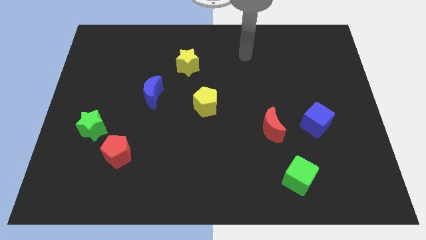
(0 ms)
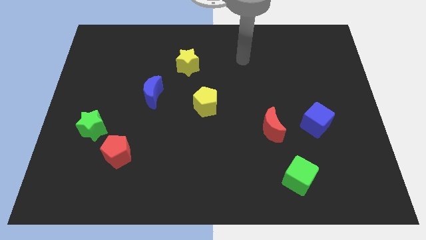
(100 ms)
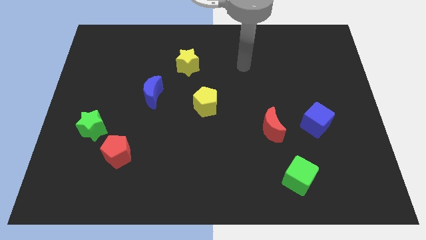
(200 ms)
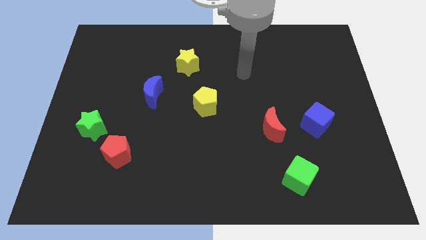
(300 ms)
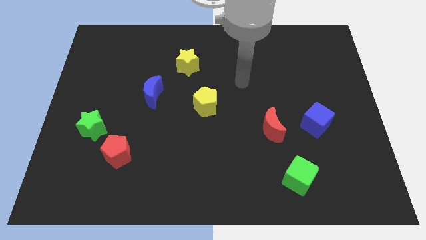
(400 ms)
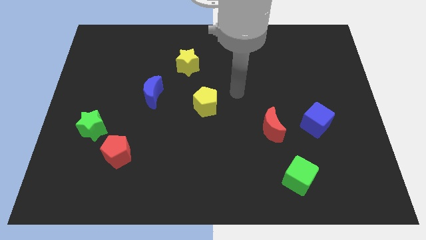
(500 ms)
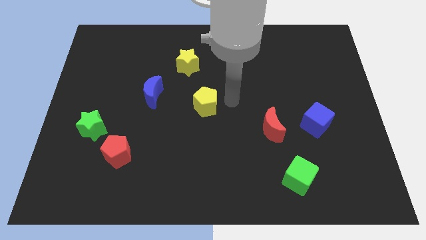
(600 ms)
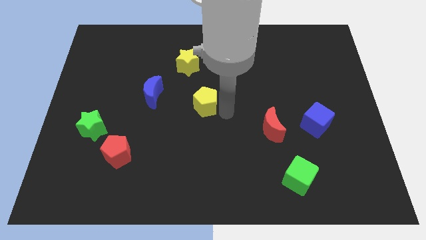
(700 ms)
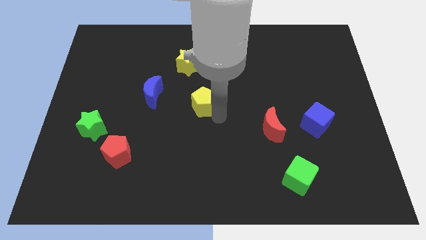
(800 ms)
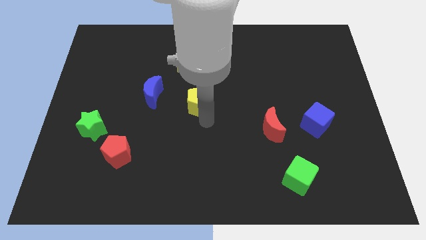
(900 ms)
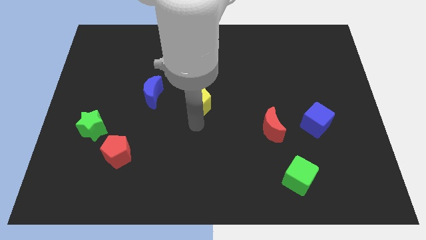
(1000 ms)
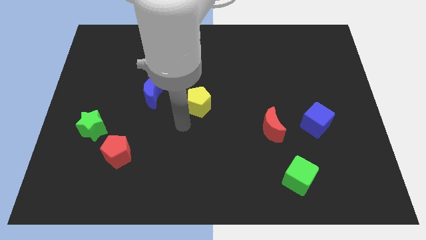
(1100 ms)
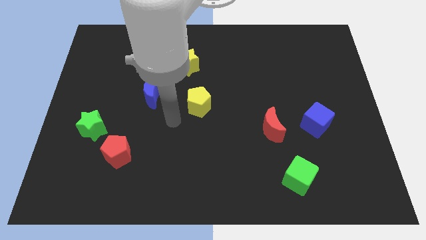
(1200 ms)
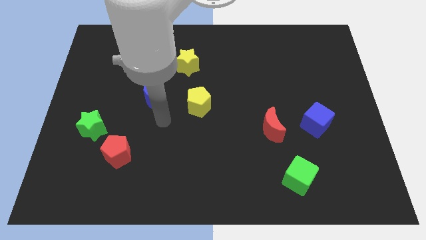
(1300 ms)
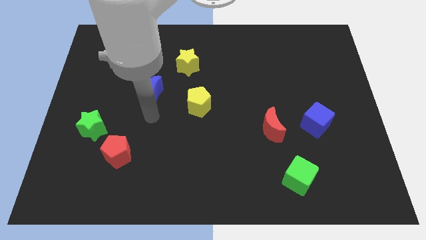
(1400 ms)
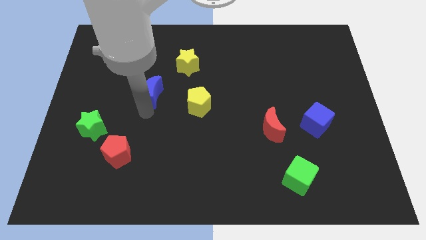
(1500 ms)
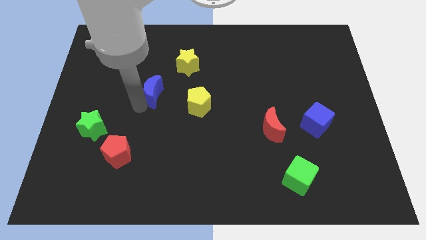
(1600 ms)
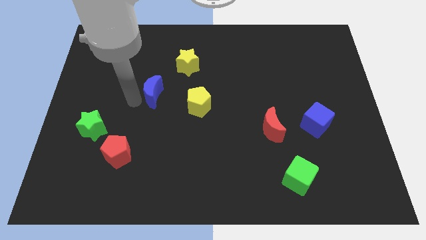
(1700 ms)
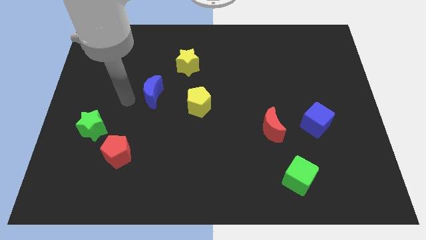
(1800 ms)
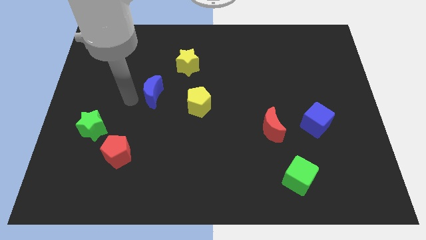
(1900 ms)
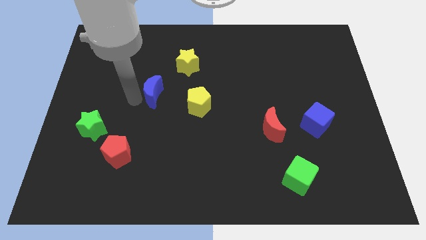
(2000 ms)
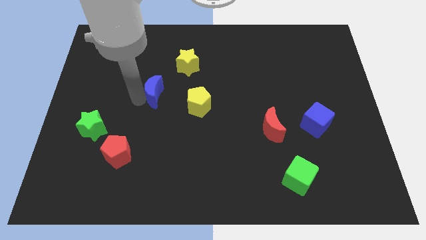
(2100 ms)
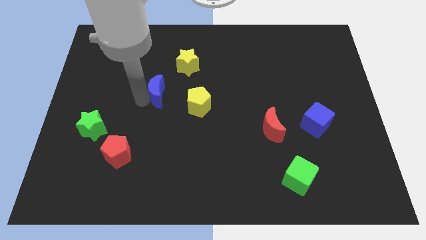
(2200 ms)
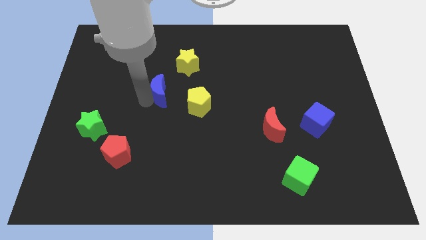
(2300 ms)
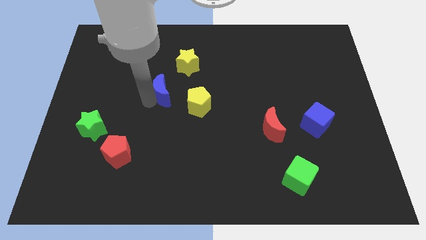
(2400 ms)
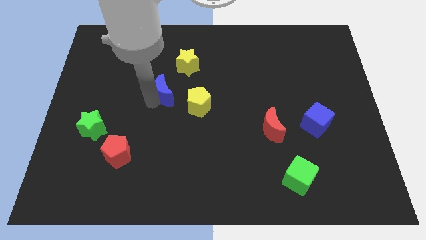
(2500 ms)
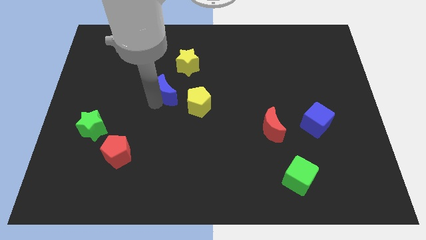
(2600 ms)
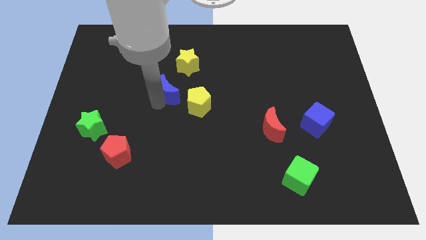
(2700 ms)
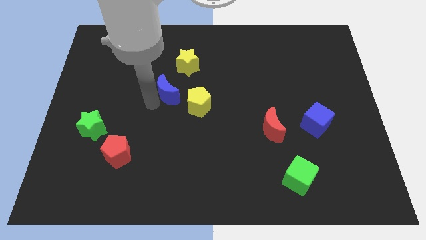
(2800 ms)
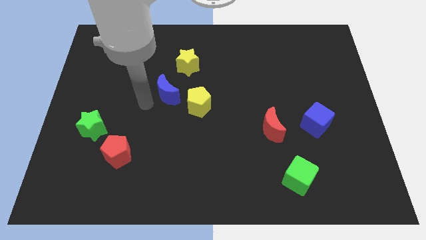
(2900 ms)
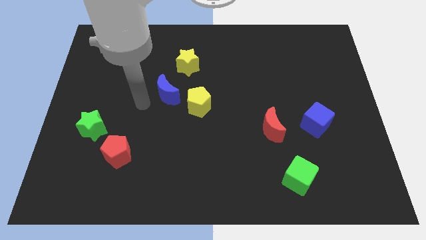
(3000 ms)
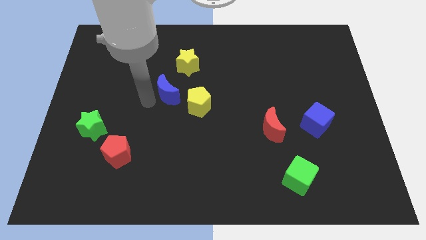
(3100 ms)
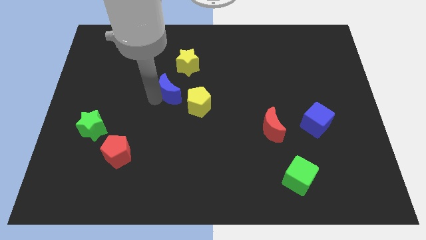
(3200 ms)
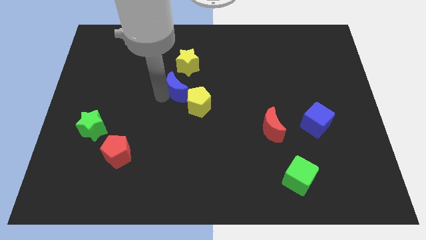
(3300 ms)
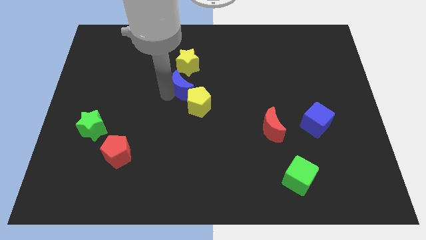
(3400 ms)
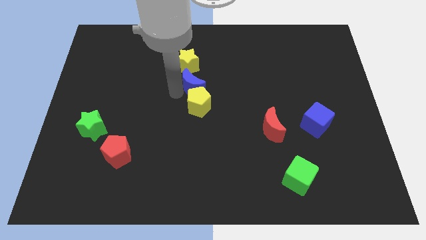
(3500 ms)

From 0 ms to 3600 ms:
slightly move the blue moon up and then right

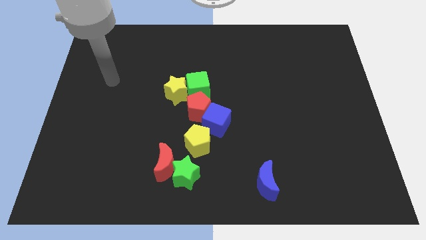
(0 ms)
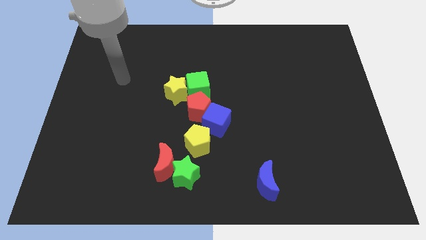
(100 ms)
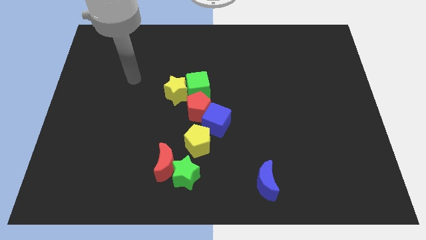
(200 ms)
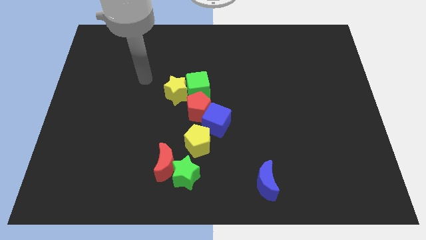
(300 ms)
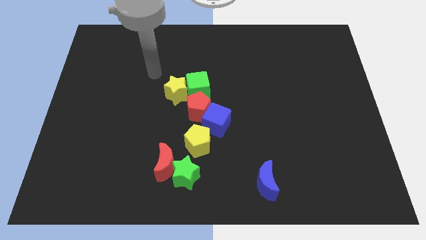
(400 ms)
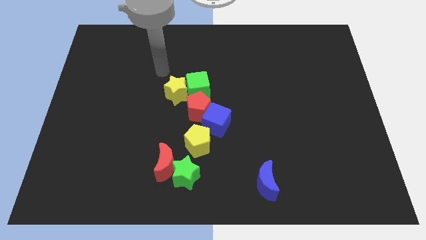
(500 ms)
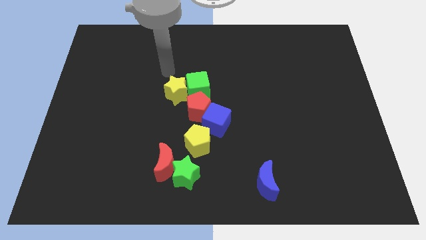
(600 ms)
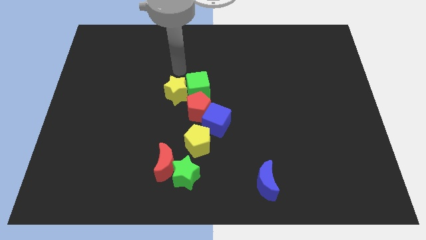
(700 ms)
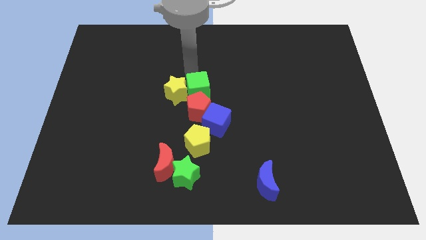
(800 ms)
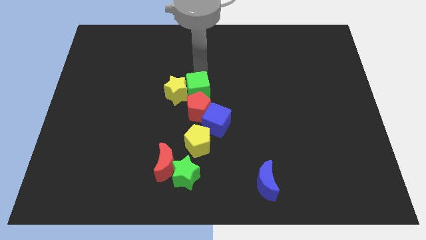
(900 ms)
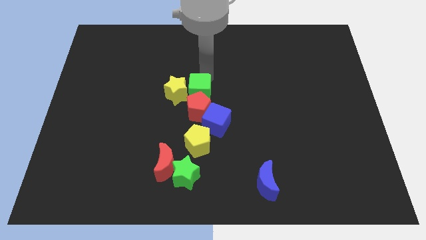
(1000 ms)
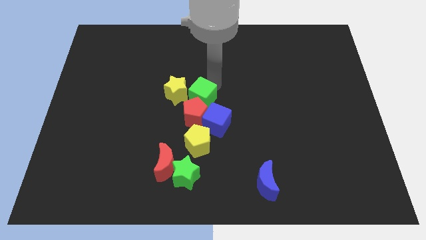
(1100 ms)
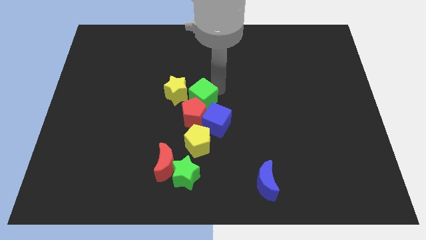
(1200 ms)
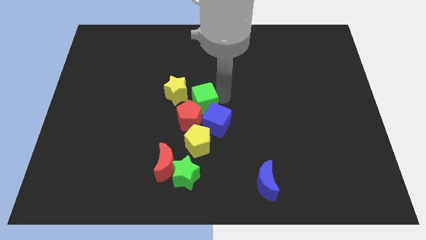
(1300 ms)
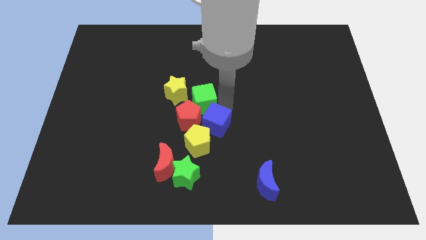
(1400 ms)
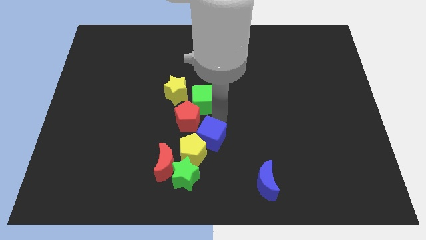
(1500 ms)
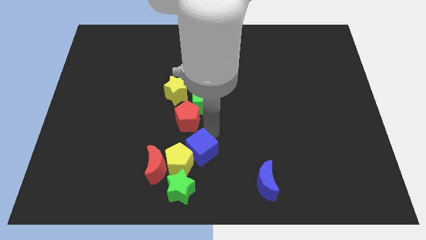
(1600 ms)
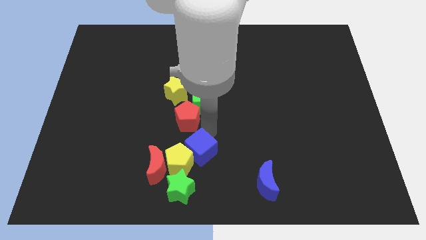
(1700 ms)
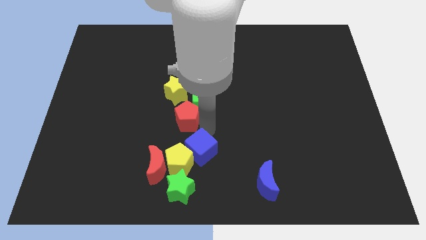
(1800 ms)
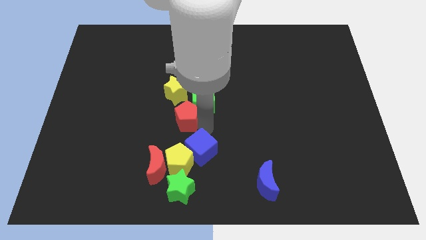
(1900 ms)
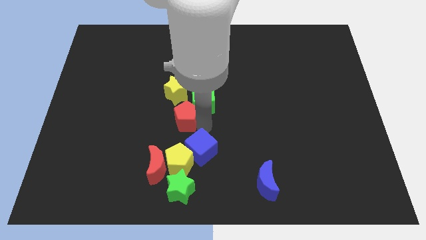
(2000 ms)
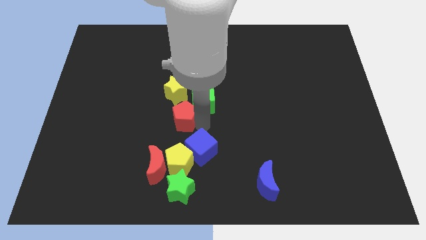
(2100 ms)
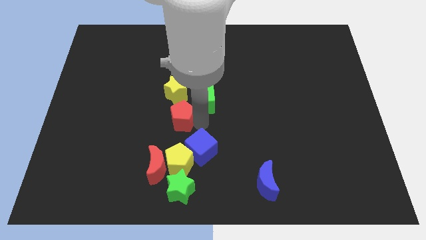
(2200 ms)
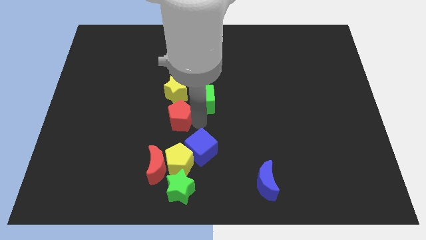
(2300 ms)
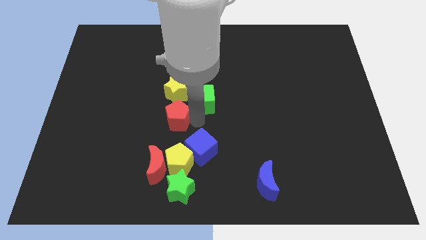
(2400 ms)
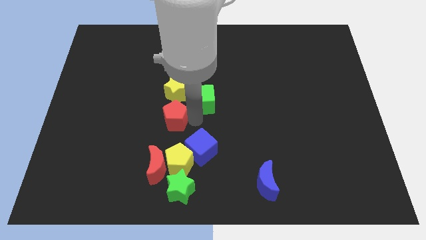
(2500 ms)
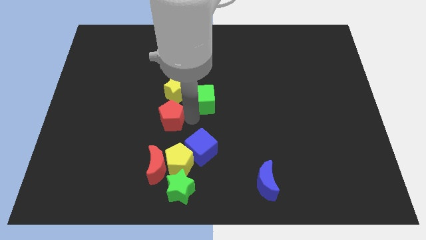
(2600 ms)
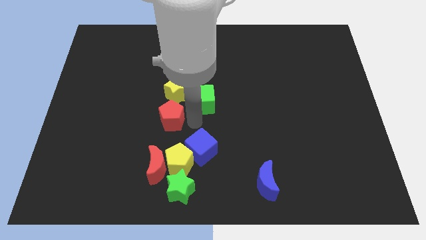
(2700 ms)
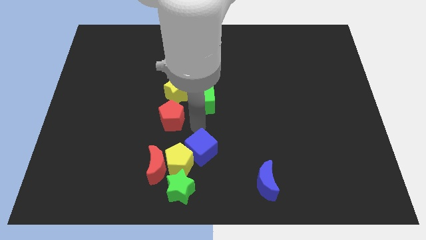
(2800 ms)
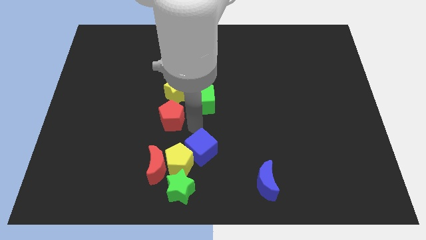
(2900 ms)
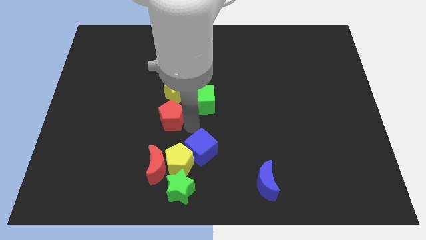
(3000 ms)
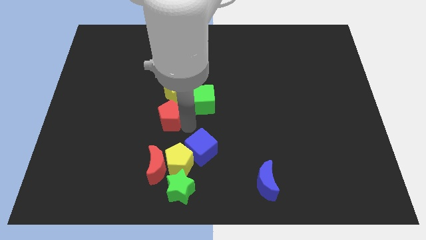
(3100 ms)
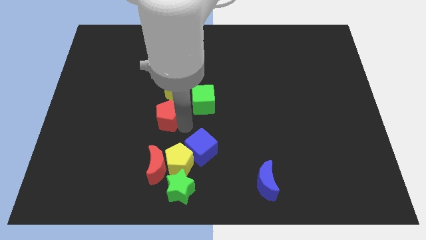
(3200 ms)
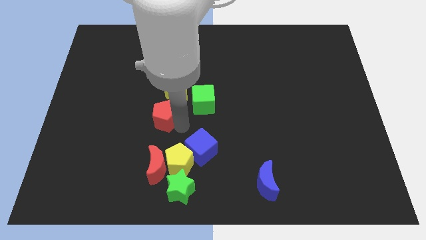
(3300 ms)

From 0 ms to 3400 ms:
slightly move the red pentagon left

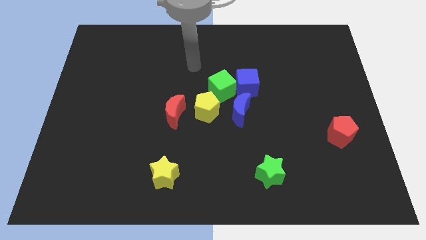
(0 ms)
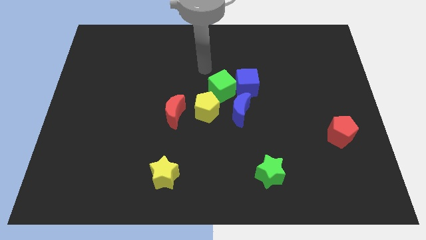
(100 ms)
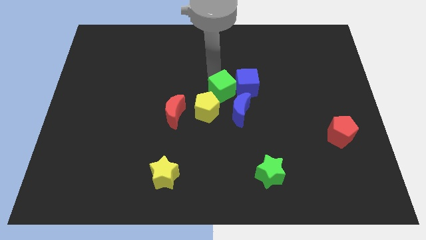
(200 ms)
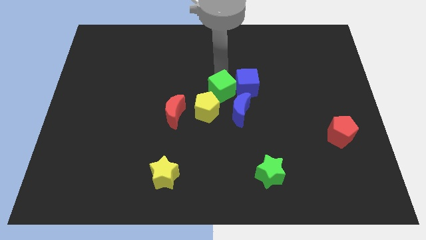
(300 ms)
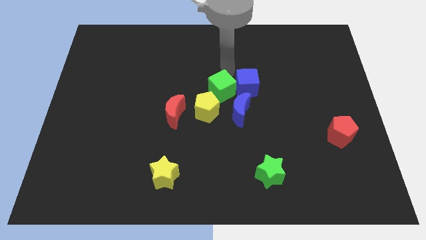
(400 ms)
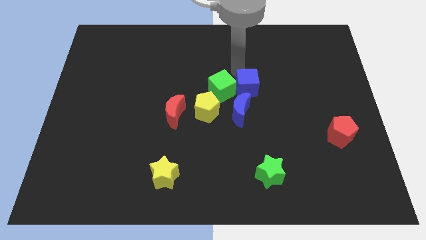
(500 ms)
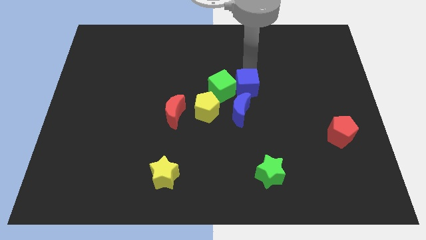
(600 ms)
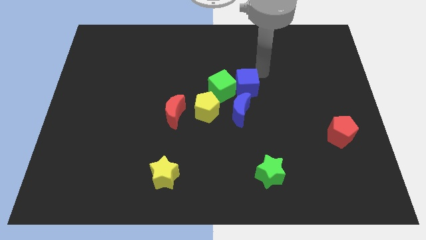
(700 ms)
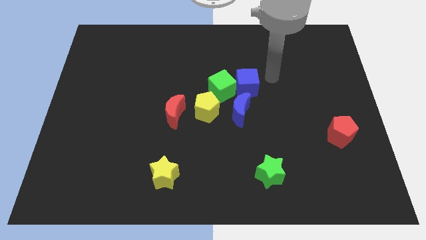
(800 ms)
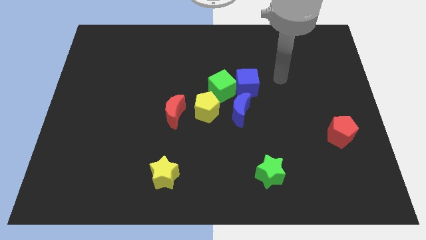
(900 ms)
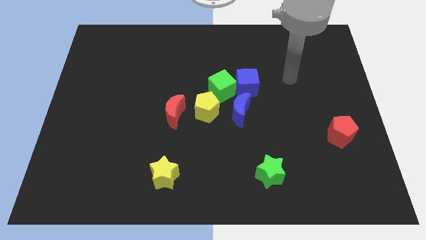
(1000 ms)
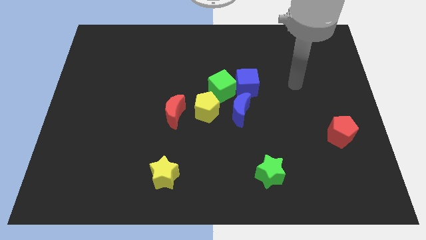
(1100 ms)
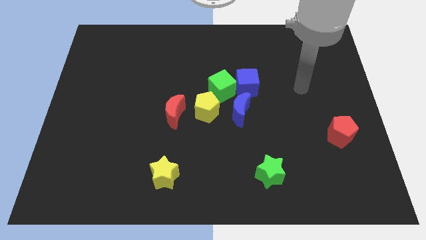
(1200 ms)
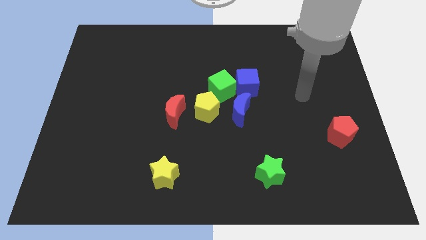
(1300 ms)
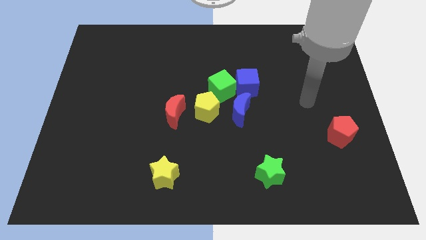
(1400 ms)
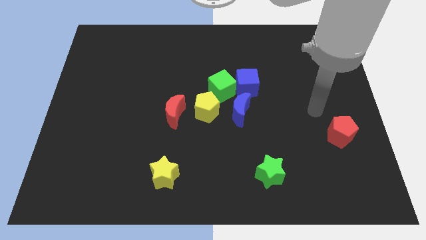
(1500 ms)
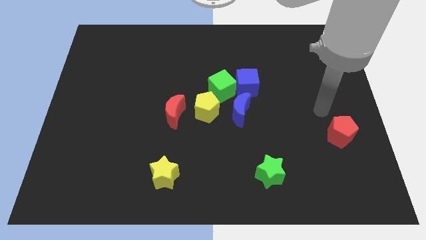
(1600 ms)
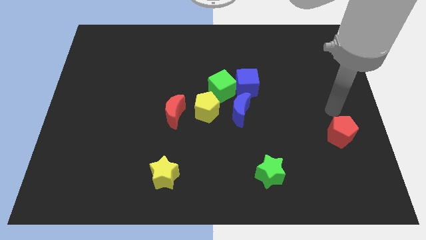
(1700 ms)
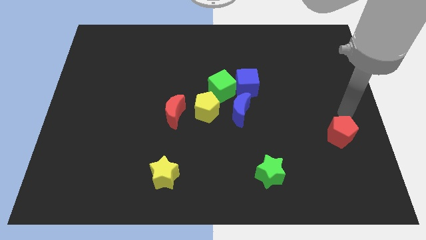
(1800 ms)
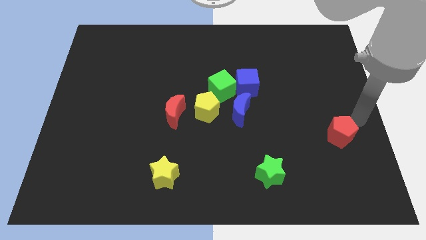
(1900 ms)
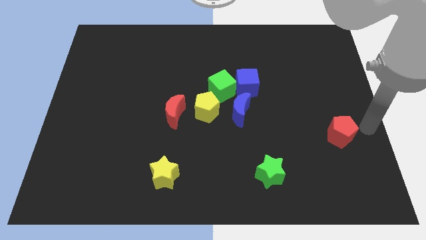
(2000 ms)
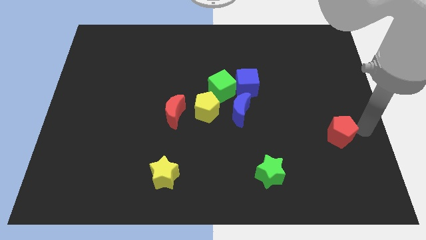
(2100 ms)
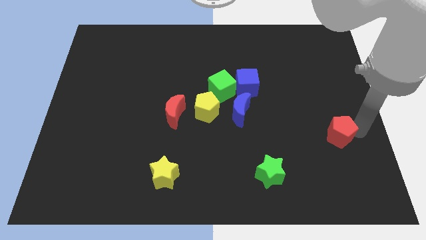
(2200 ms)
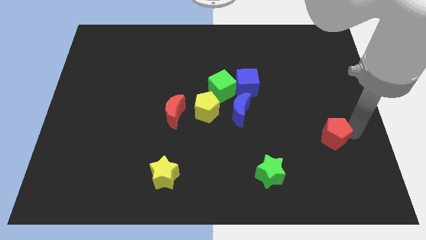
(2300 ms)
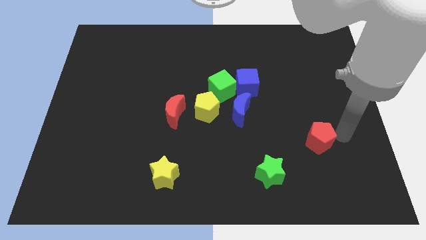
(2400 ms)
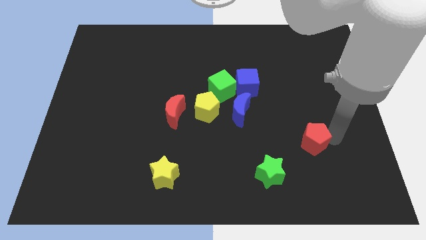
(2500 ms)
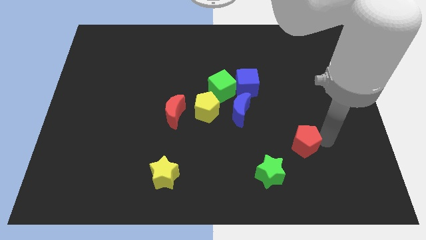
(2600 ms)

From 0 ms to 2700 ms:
slide the red pentagon left a little bit
